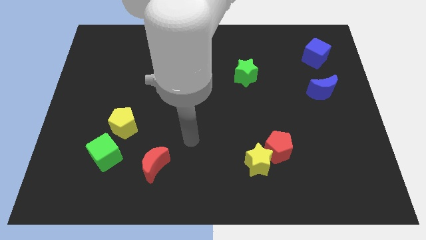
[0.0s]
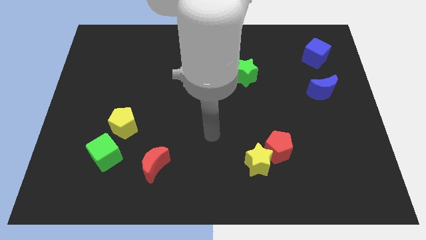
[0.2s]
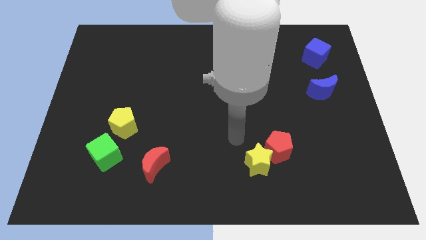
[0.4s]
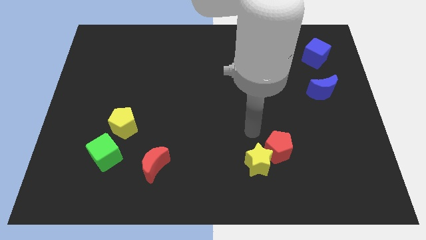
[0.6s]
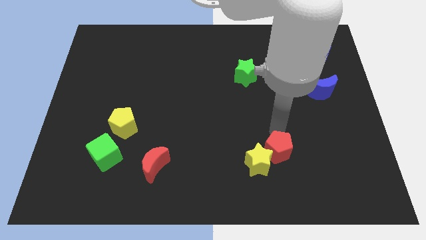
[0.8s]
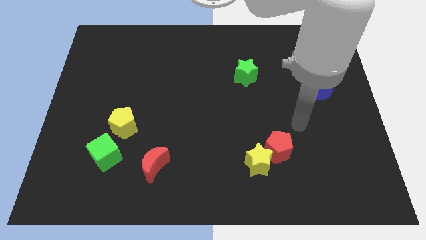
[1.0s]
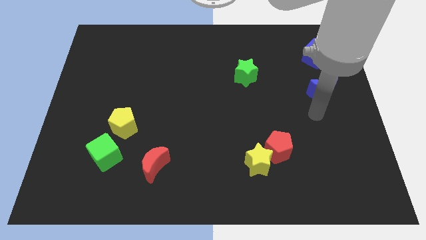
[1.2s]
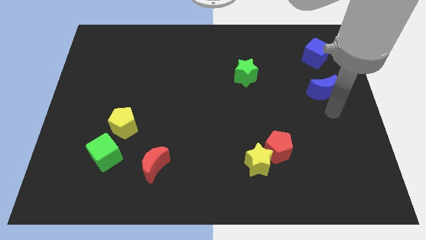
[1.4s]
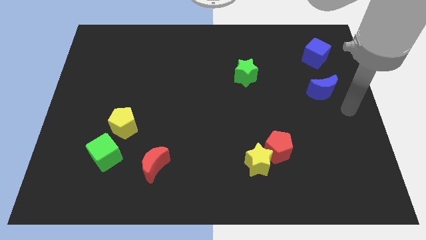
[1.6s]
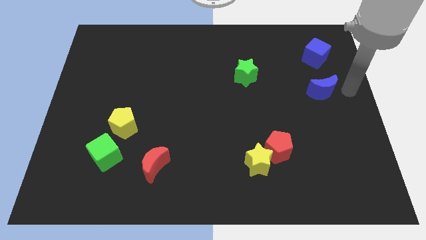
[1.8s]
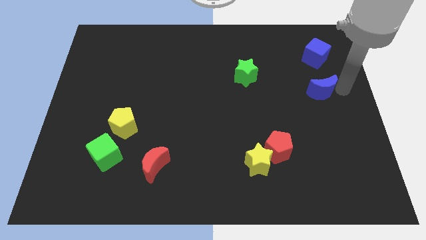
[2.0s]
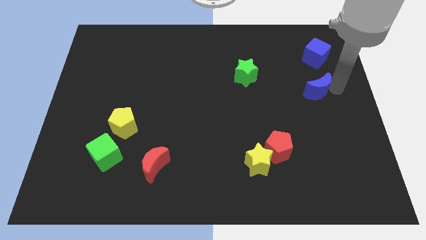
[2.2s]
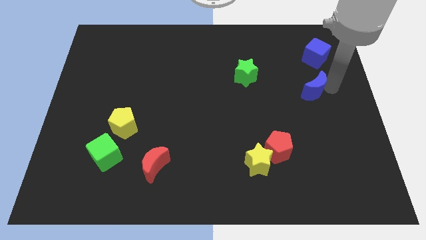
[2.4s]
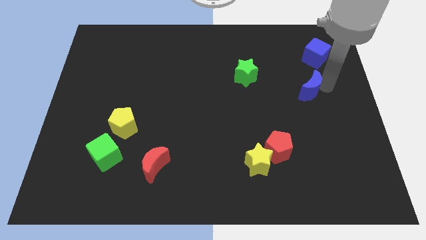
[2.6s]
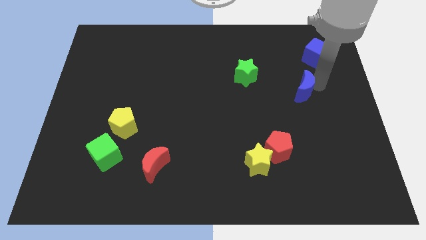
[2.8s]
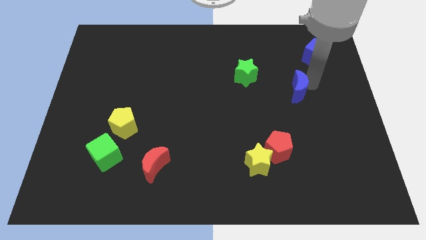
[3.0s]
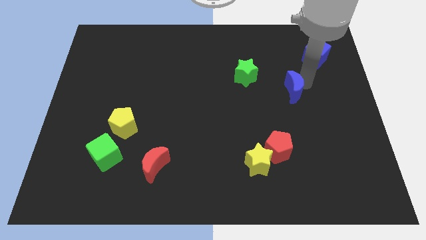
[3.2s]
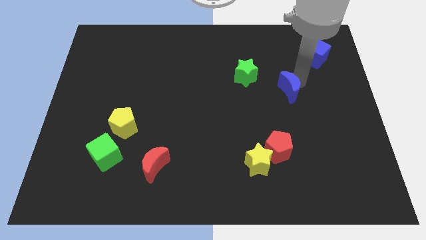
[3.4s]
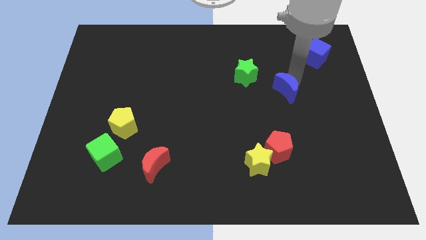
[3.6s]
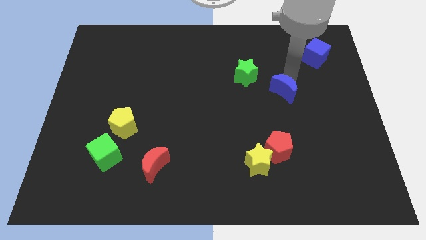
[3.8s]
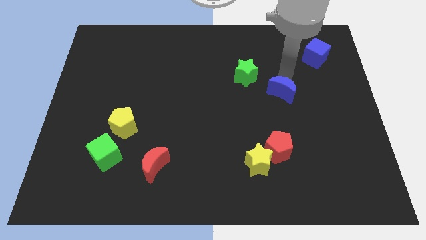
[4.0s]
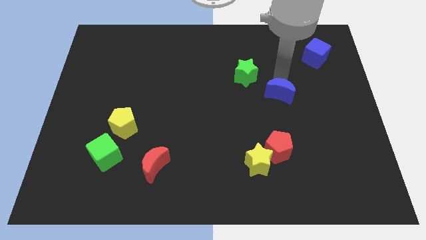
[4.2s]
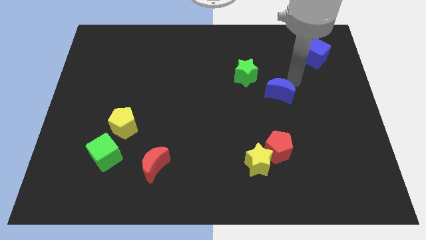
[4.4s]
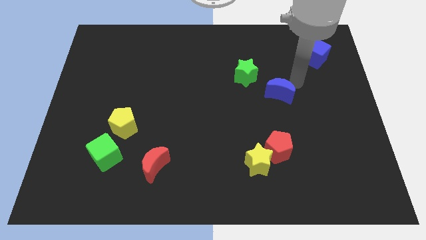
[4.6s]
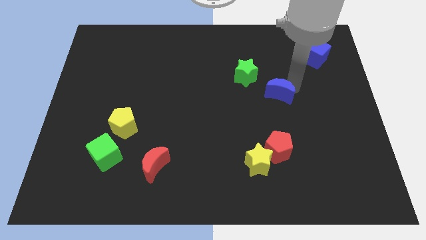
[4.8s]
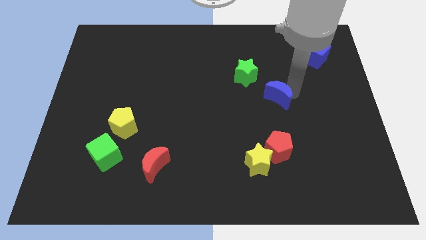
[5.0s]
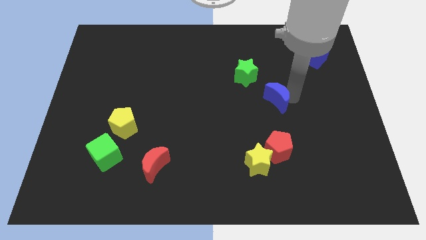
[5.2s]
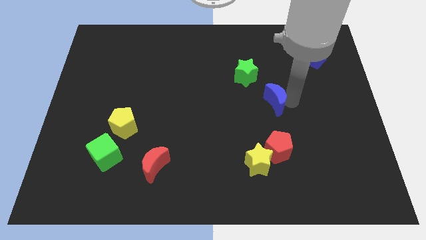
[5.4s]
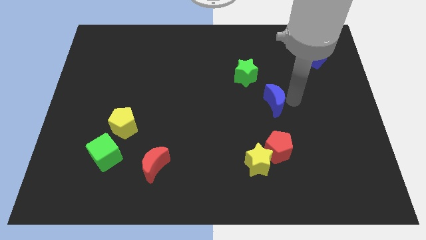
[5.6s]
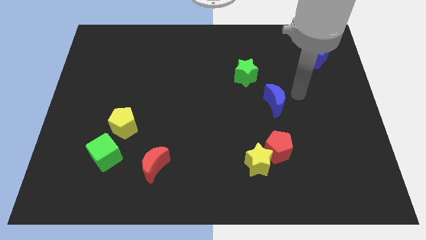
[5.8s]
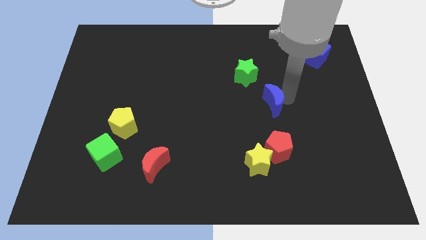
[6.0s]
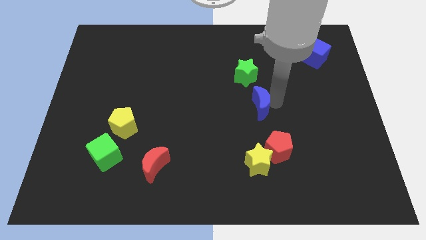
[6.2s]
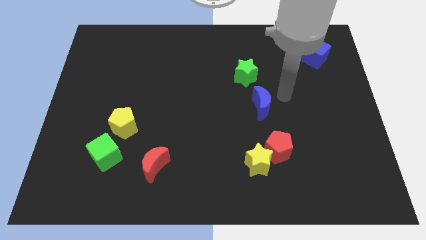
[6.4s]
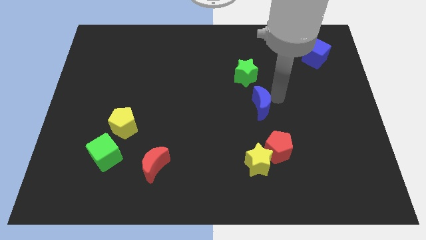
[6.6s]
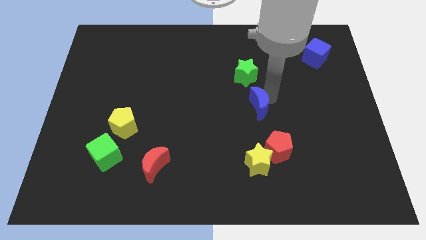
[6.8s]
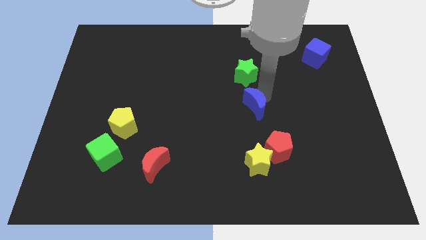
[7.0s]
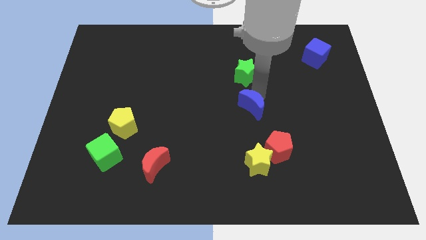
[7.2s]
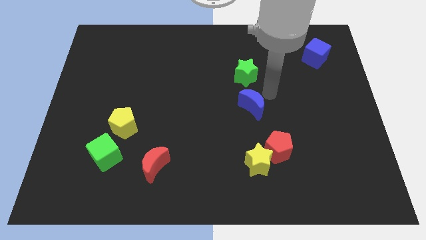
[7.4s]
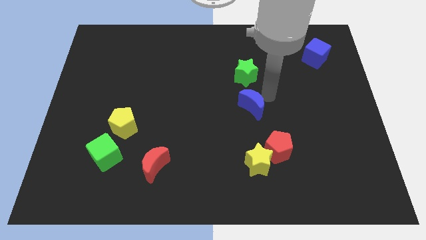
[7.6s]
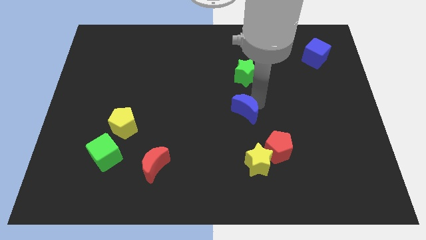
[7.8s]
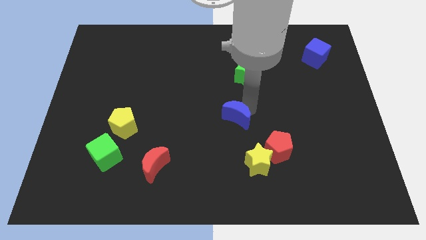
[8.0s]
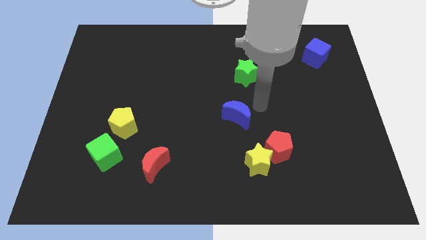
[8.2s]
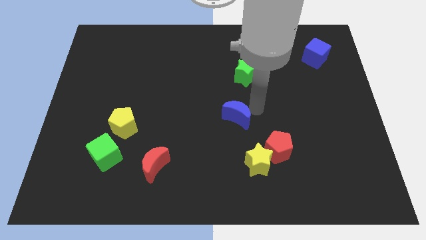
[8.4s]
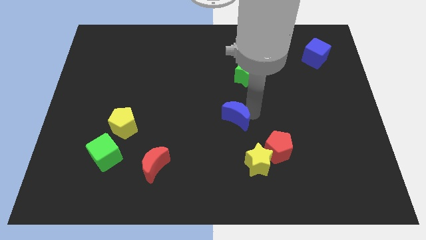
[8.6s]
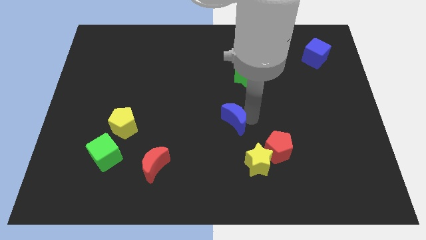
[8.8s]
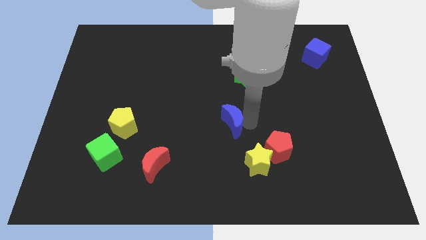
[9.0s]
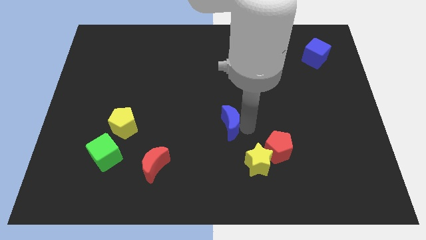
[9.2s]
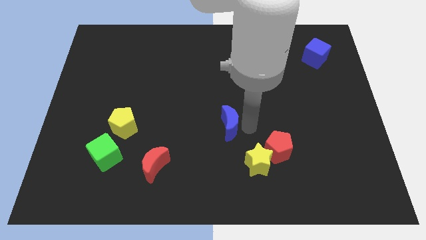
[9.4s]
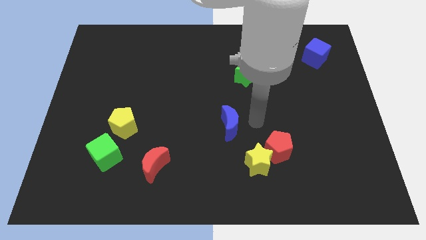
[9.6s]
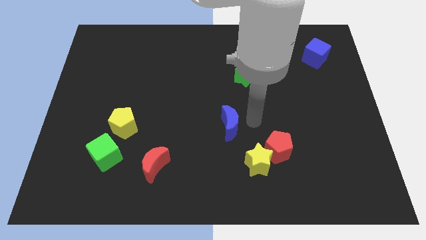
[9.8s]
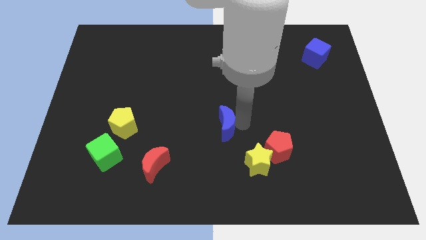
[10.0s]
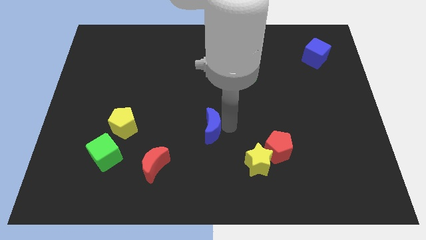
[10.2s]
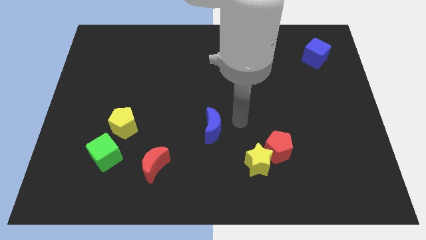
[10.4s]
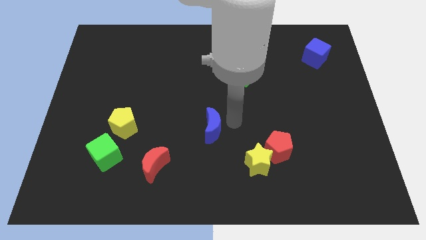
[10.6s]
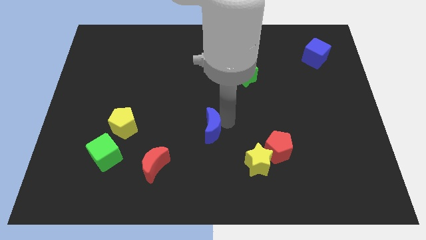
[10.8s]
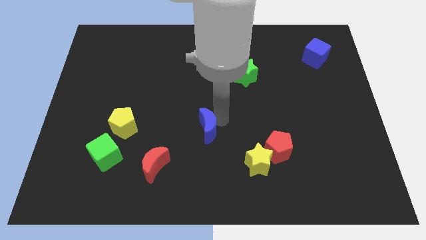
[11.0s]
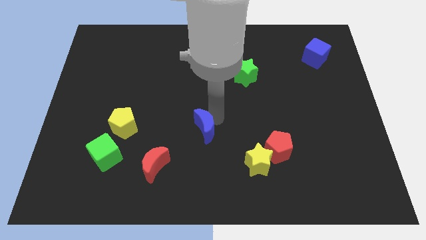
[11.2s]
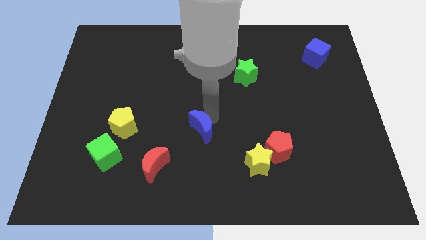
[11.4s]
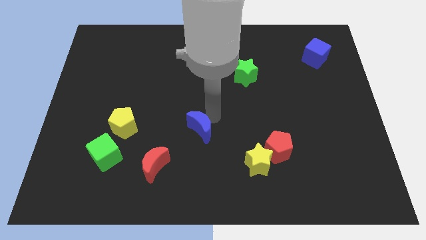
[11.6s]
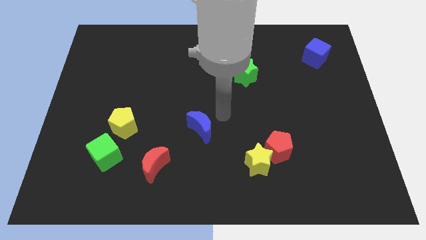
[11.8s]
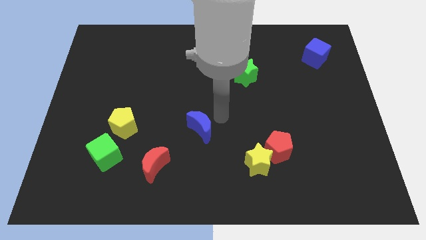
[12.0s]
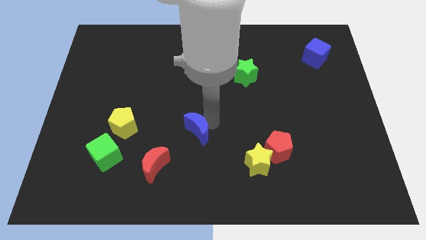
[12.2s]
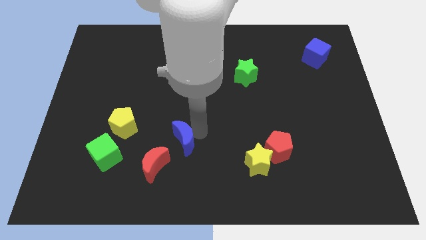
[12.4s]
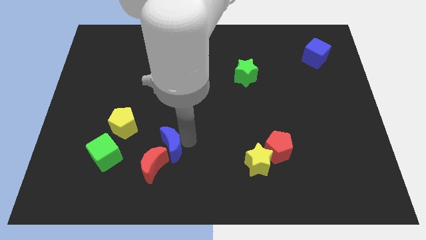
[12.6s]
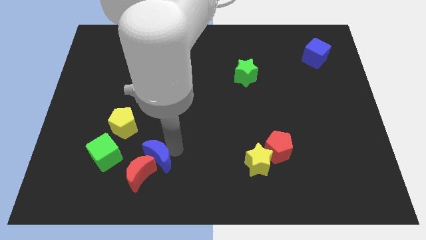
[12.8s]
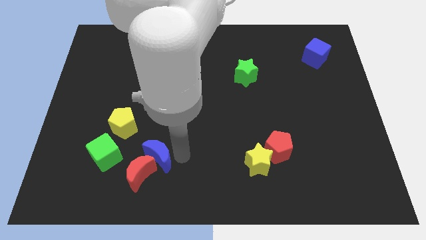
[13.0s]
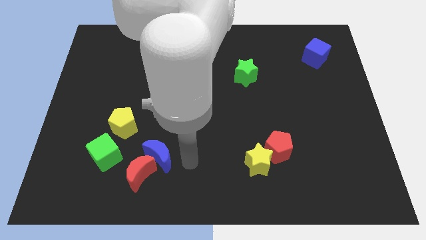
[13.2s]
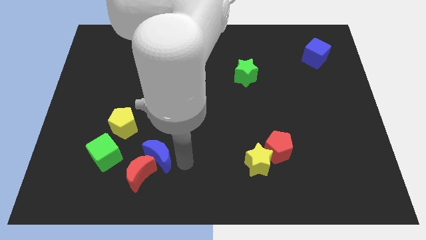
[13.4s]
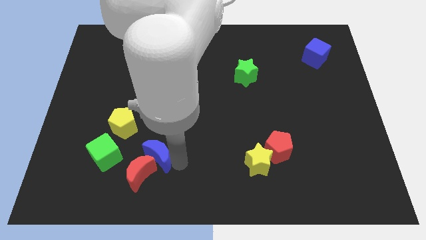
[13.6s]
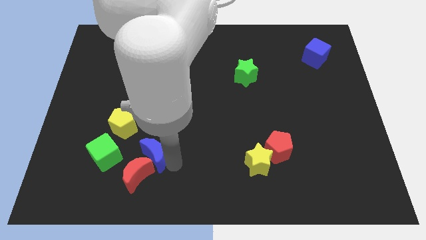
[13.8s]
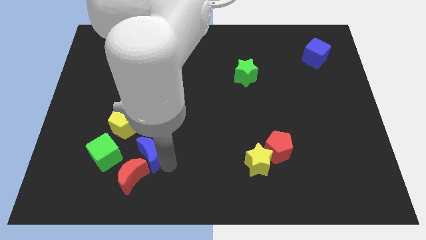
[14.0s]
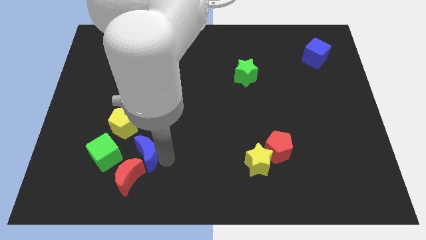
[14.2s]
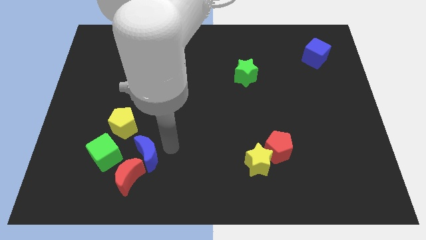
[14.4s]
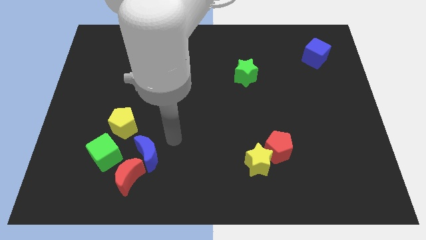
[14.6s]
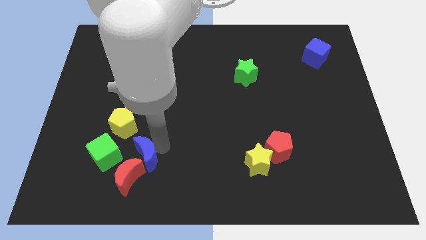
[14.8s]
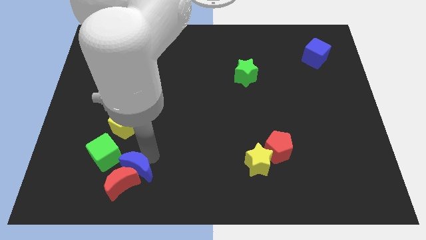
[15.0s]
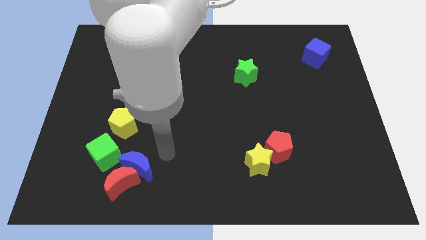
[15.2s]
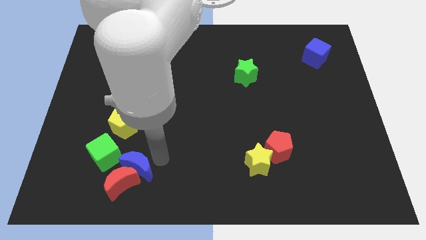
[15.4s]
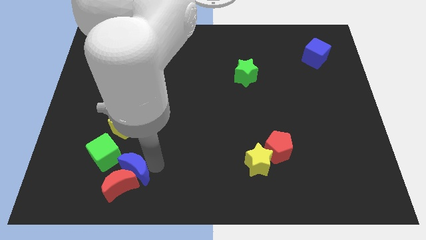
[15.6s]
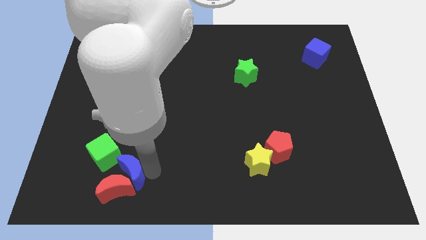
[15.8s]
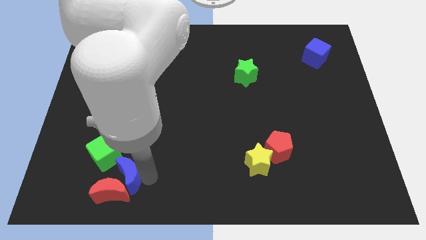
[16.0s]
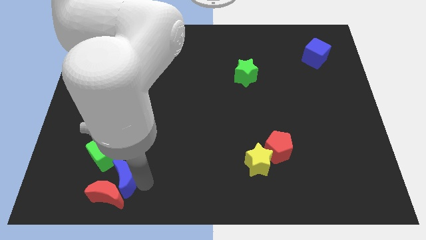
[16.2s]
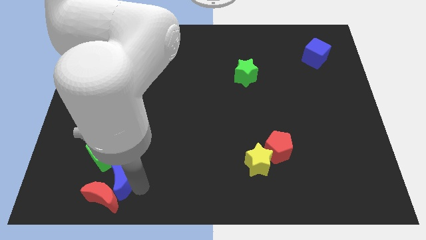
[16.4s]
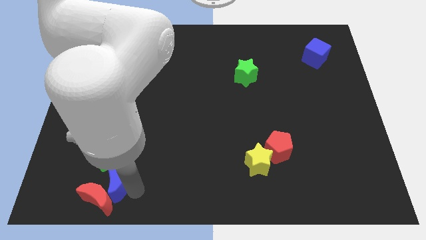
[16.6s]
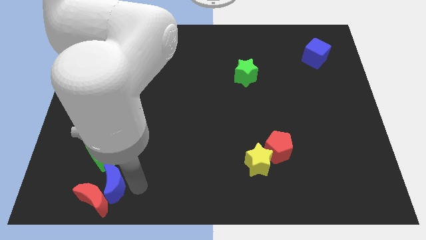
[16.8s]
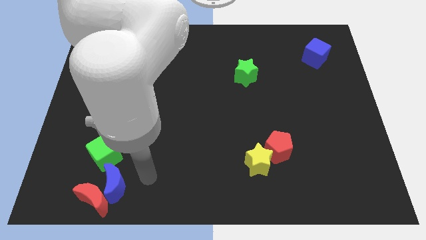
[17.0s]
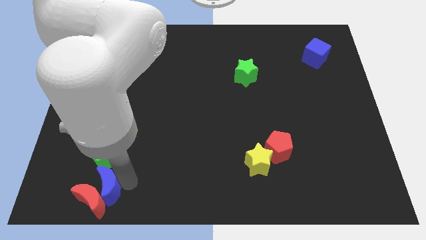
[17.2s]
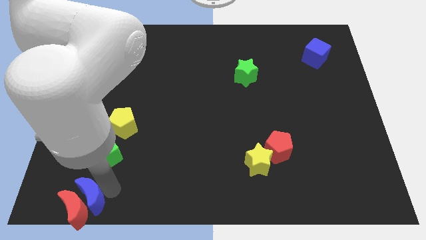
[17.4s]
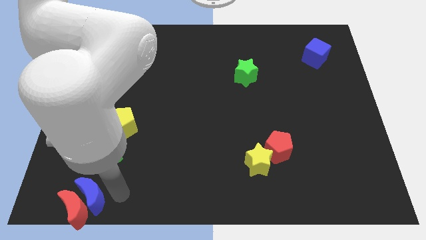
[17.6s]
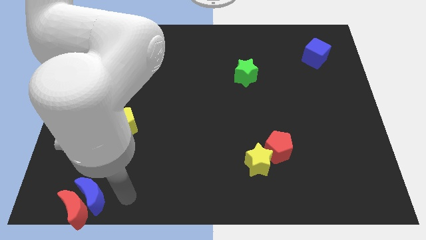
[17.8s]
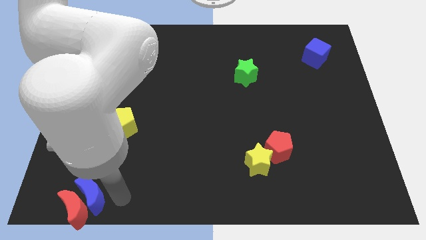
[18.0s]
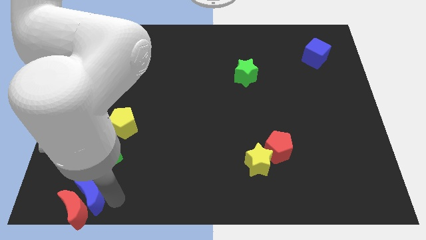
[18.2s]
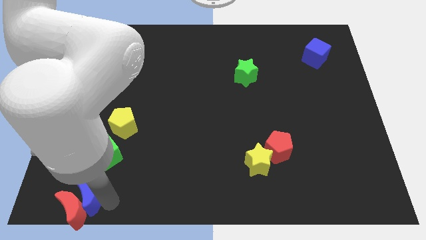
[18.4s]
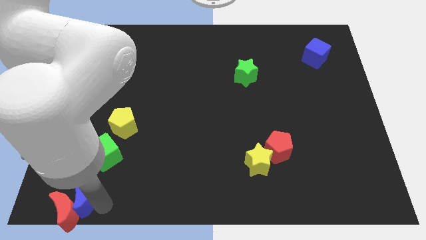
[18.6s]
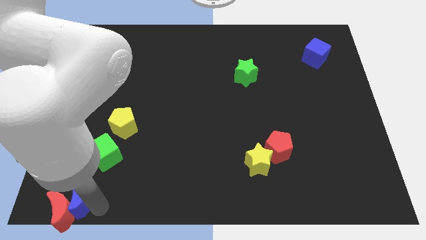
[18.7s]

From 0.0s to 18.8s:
move the blue moon to the bottom left corner
